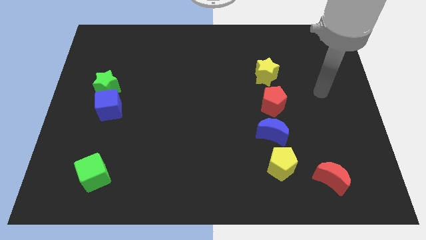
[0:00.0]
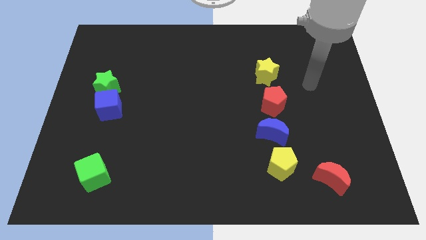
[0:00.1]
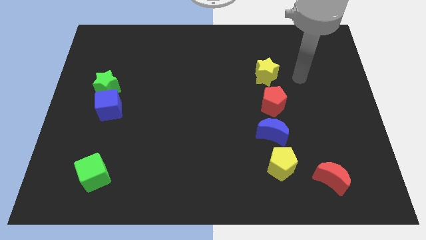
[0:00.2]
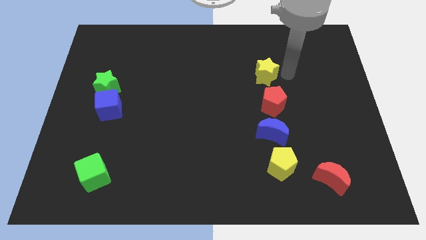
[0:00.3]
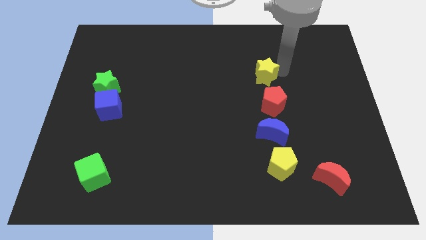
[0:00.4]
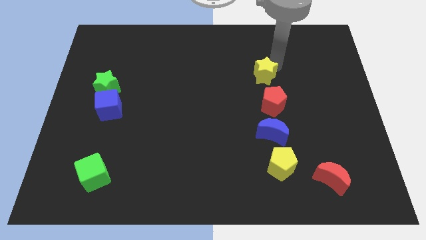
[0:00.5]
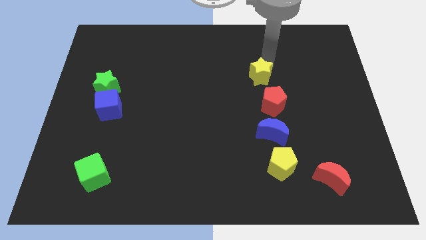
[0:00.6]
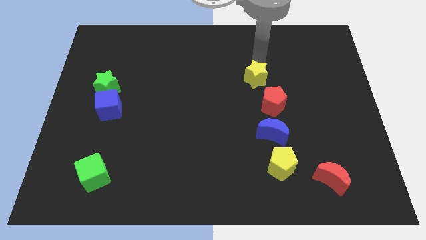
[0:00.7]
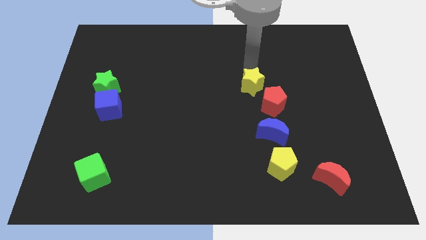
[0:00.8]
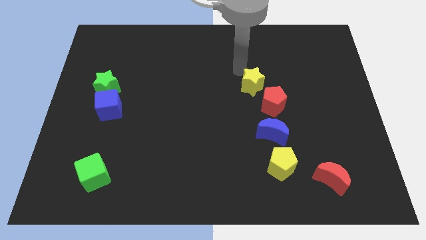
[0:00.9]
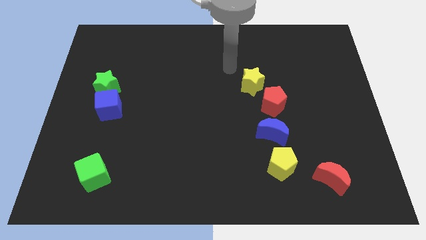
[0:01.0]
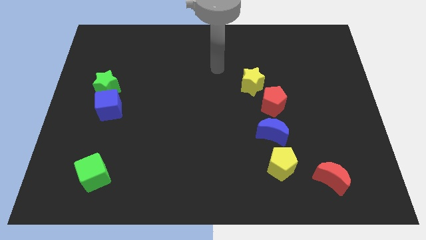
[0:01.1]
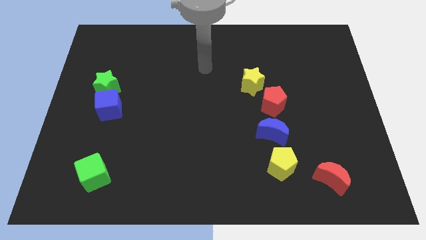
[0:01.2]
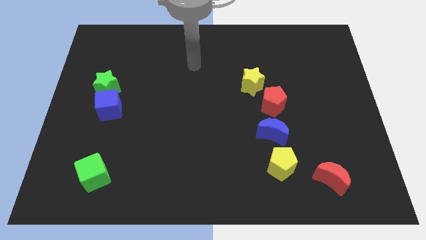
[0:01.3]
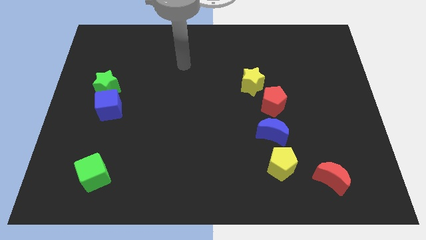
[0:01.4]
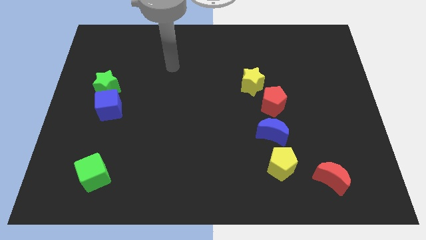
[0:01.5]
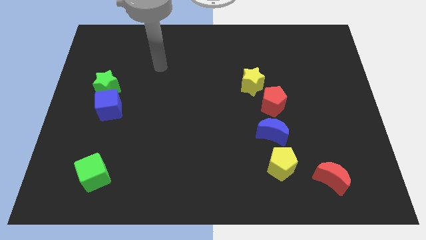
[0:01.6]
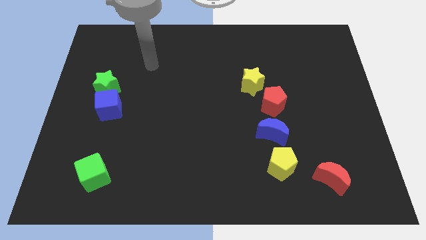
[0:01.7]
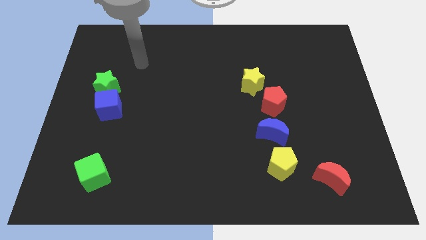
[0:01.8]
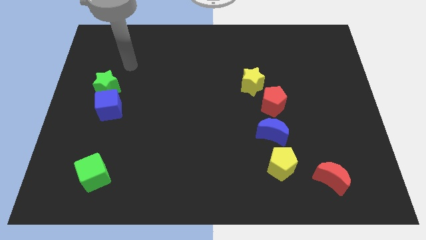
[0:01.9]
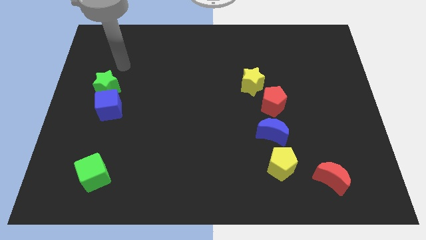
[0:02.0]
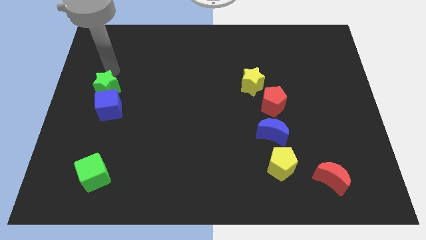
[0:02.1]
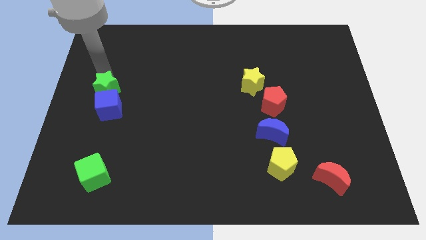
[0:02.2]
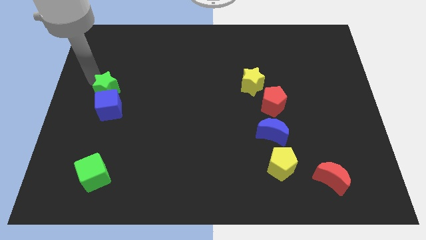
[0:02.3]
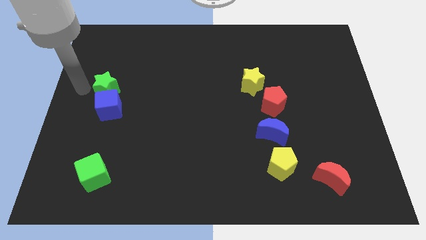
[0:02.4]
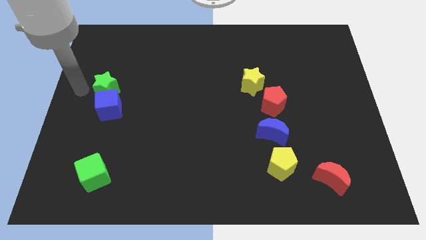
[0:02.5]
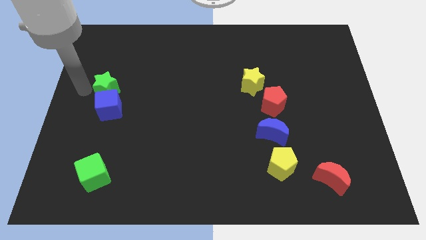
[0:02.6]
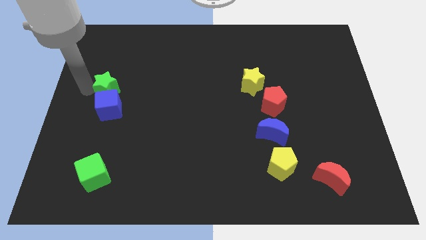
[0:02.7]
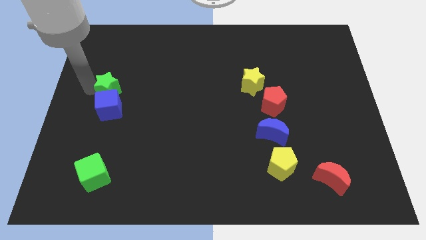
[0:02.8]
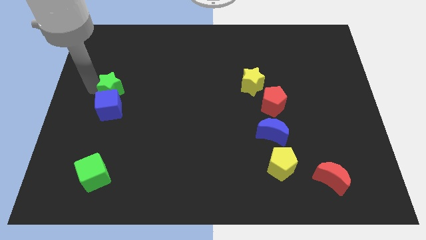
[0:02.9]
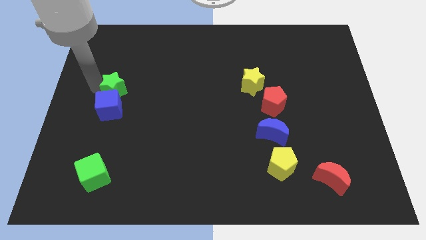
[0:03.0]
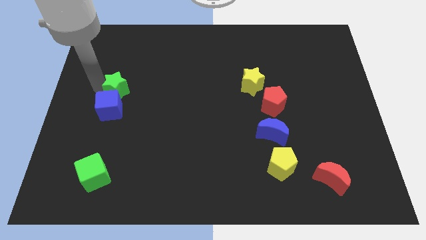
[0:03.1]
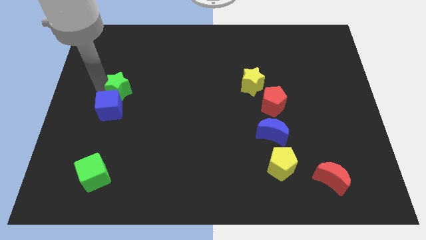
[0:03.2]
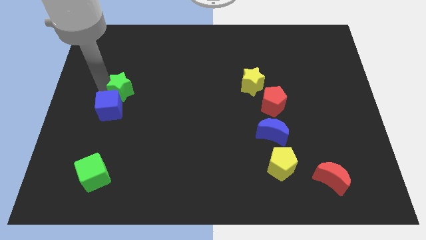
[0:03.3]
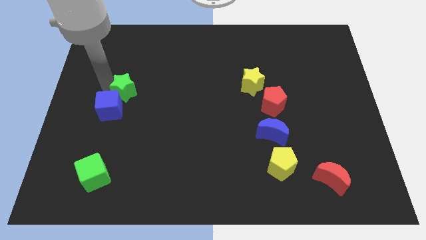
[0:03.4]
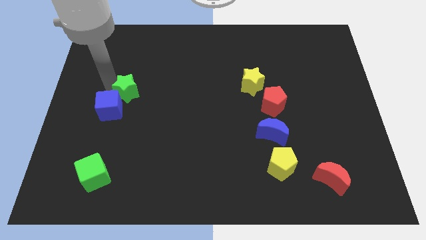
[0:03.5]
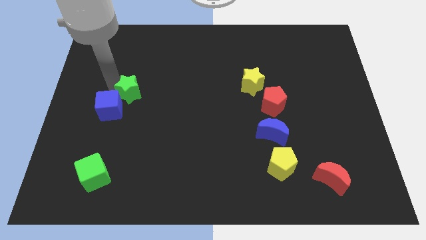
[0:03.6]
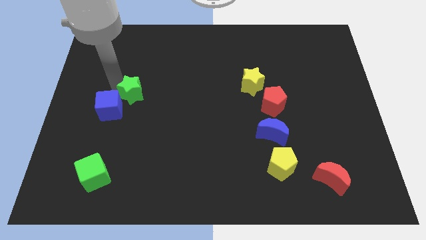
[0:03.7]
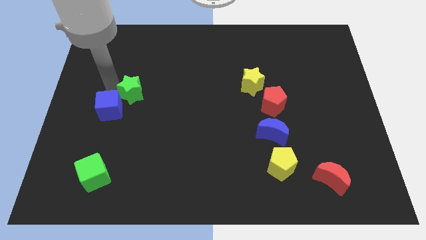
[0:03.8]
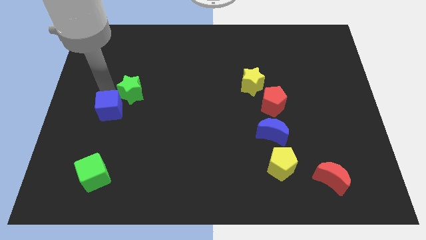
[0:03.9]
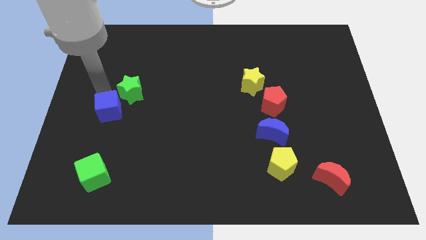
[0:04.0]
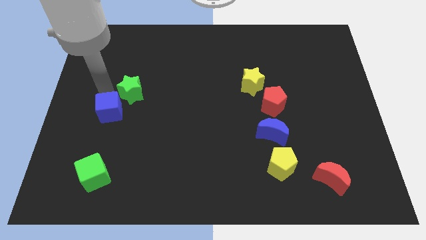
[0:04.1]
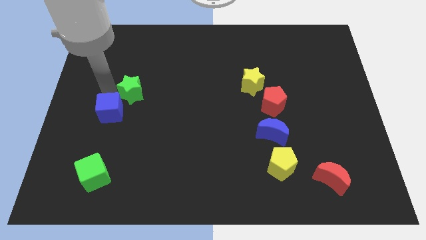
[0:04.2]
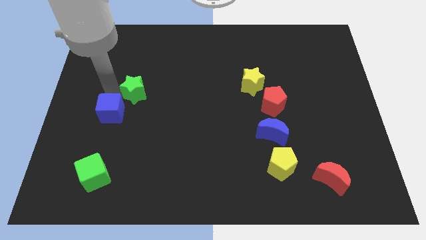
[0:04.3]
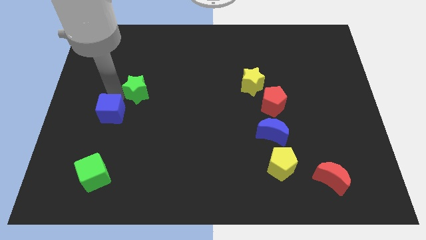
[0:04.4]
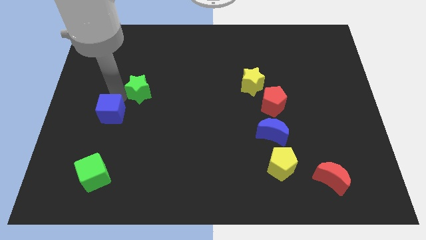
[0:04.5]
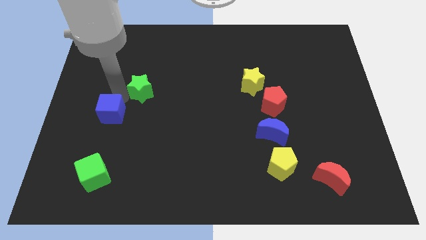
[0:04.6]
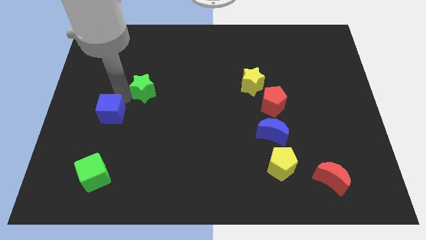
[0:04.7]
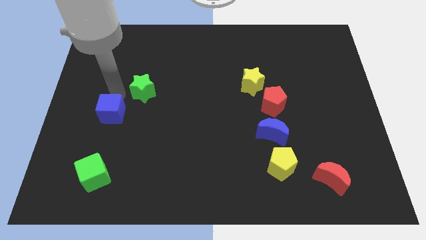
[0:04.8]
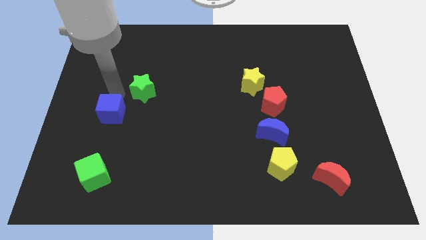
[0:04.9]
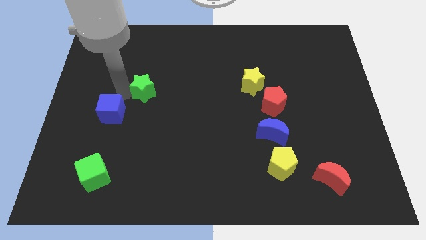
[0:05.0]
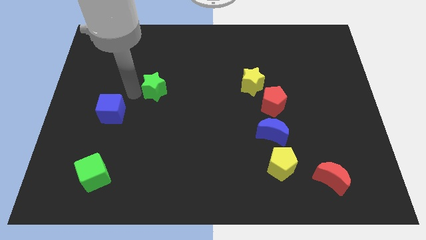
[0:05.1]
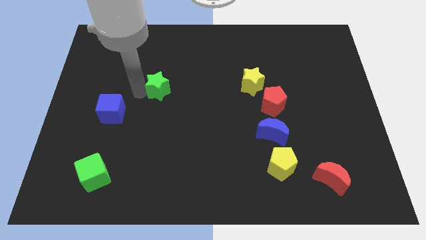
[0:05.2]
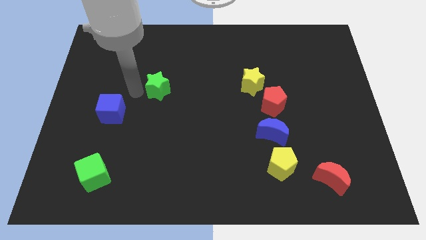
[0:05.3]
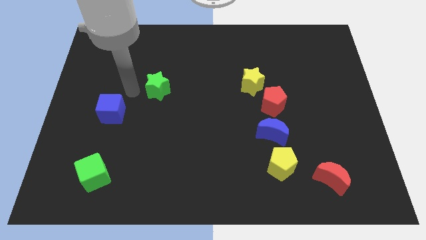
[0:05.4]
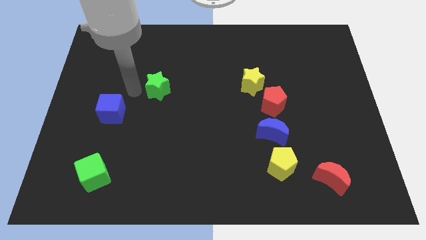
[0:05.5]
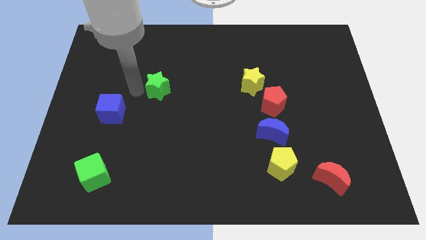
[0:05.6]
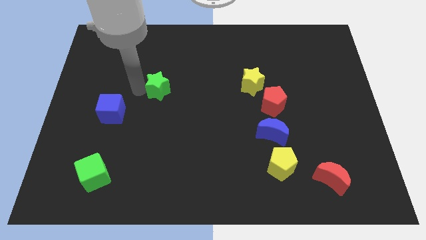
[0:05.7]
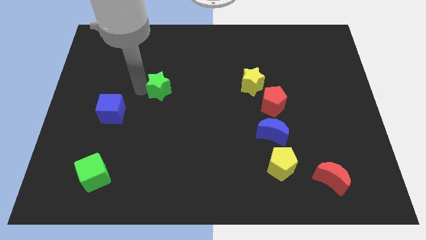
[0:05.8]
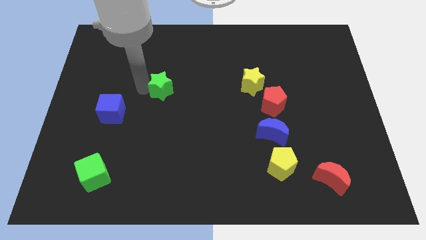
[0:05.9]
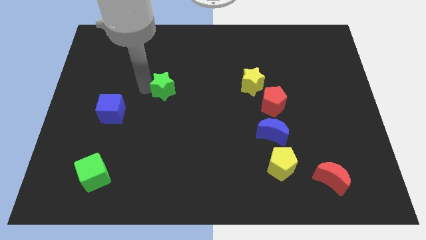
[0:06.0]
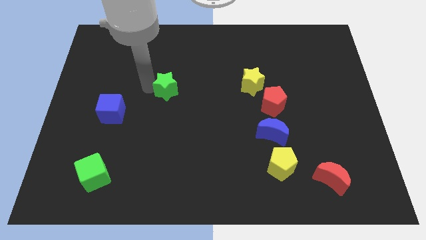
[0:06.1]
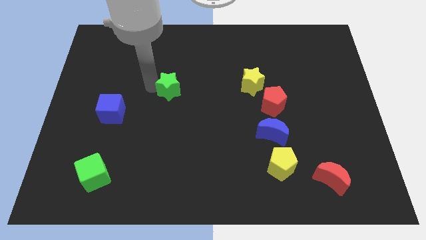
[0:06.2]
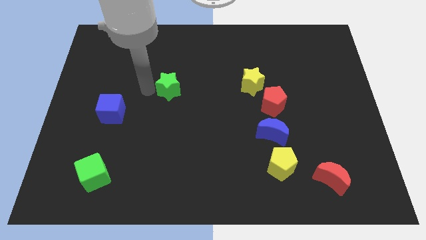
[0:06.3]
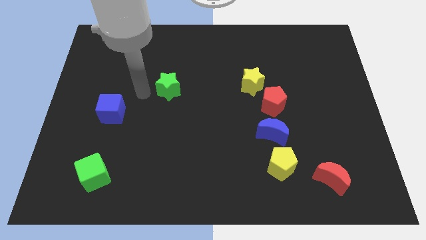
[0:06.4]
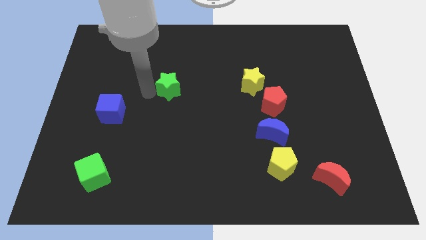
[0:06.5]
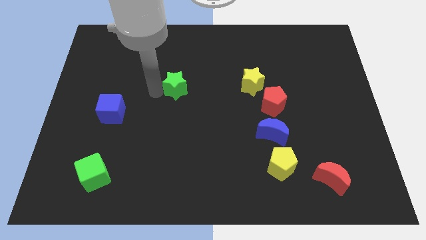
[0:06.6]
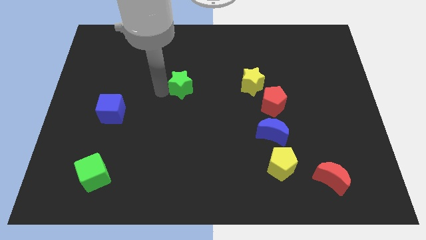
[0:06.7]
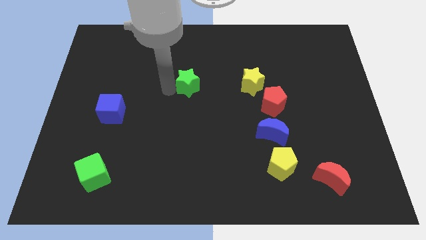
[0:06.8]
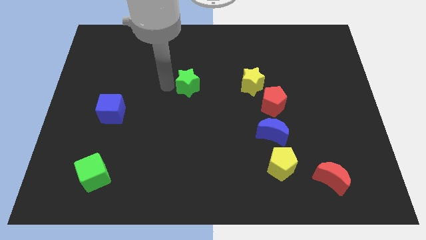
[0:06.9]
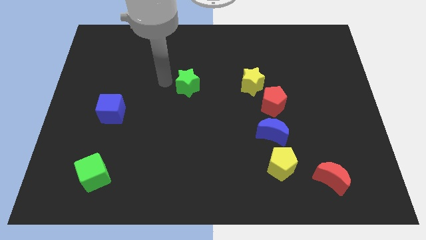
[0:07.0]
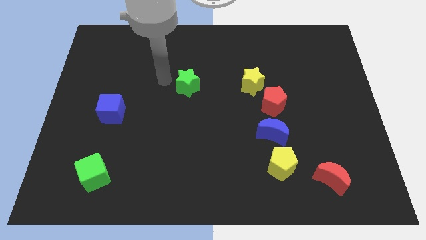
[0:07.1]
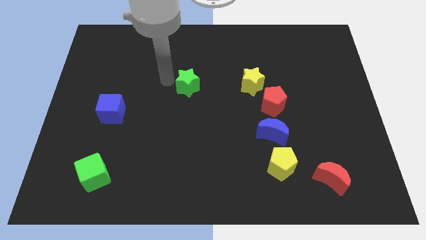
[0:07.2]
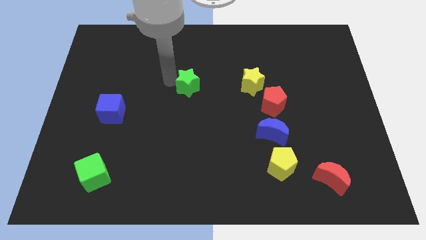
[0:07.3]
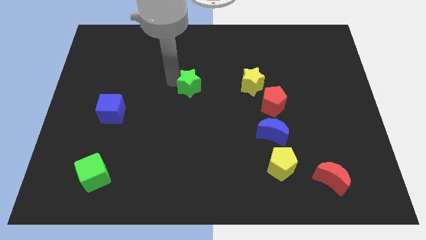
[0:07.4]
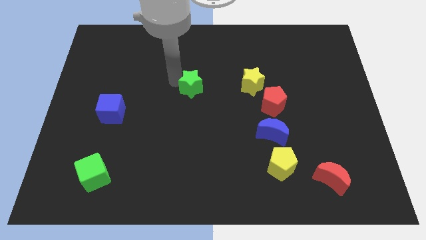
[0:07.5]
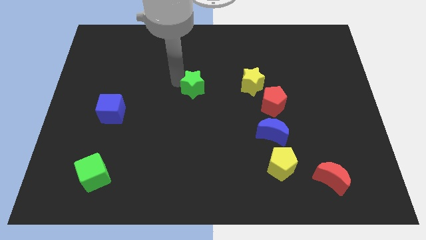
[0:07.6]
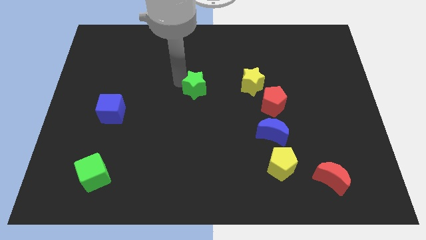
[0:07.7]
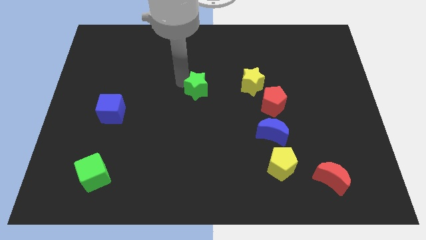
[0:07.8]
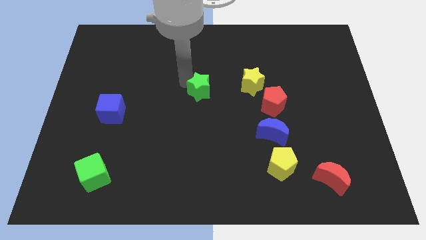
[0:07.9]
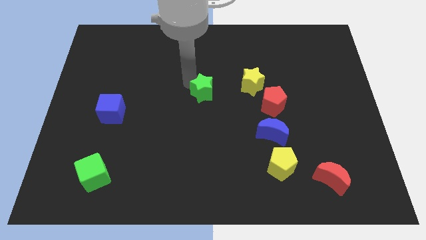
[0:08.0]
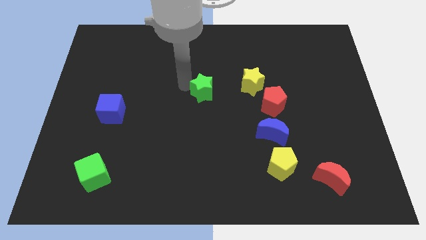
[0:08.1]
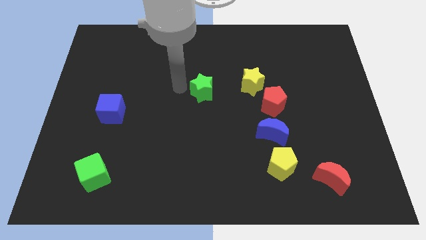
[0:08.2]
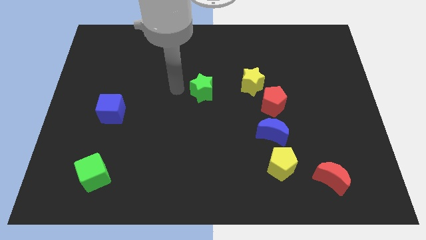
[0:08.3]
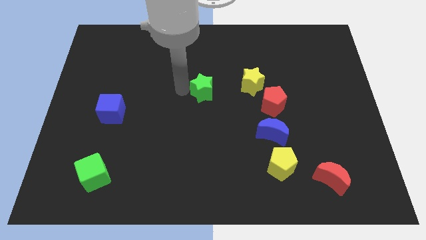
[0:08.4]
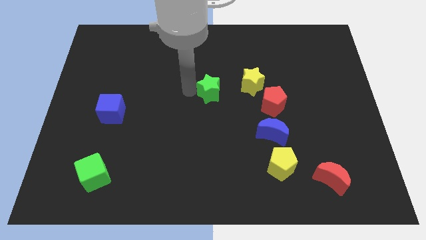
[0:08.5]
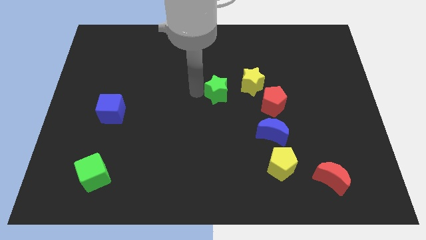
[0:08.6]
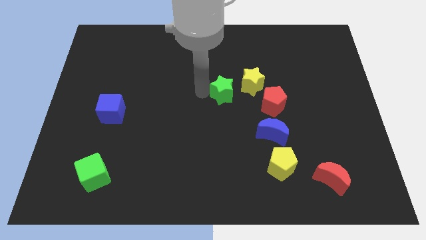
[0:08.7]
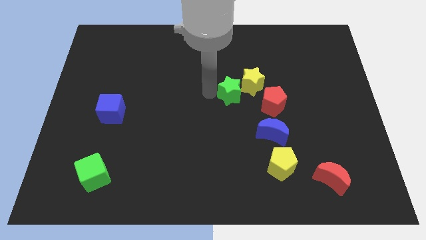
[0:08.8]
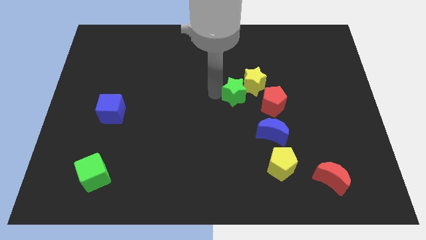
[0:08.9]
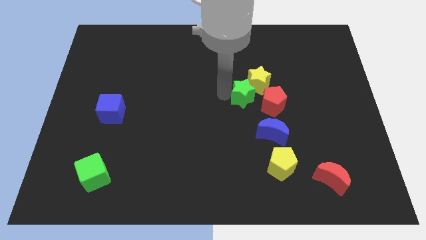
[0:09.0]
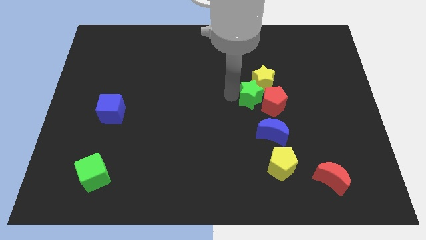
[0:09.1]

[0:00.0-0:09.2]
slide the green star next to the red pentagon
